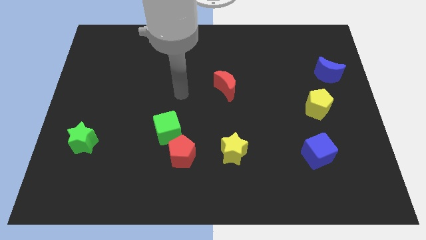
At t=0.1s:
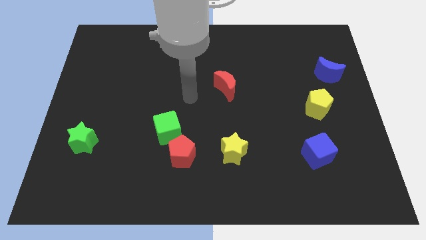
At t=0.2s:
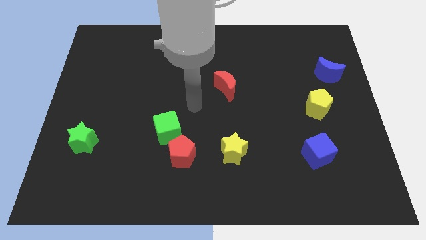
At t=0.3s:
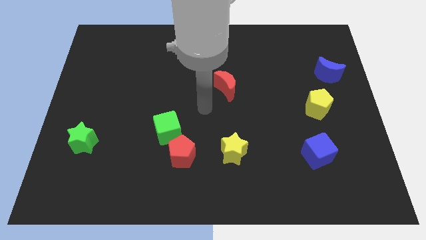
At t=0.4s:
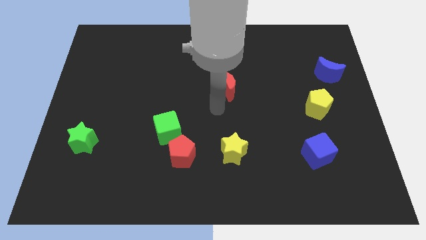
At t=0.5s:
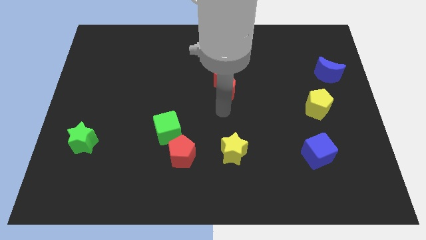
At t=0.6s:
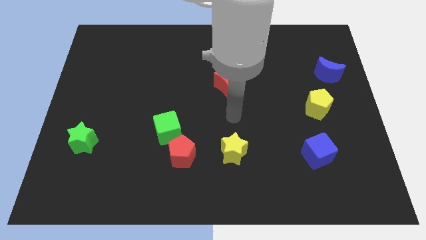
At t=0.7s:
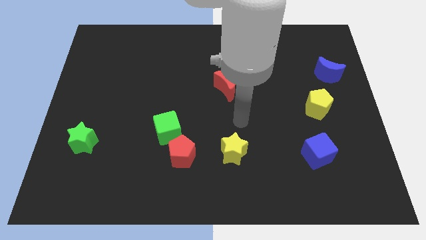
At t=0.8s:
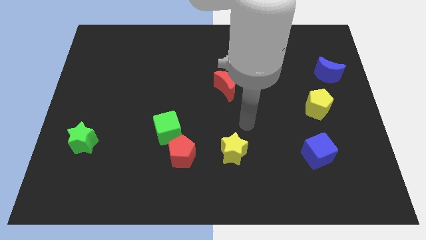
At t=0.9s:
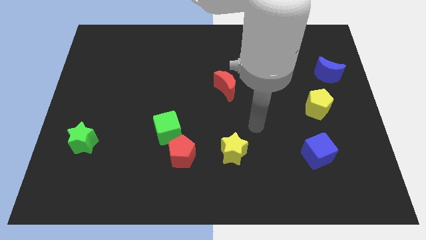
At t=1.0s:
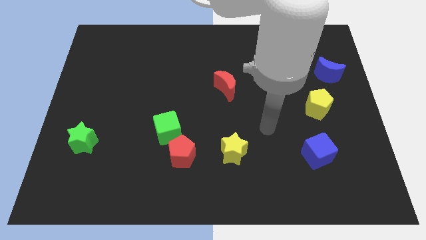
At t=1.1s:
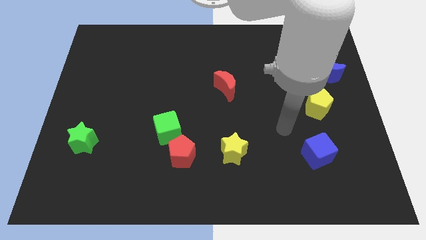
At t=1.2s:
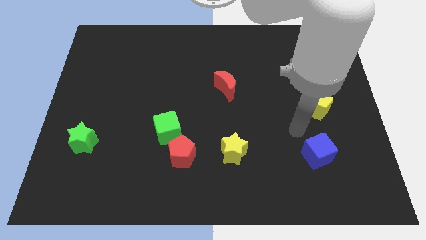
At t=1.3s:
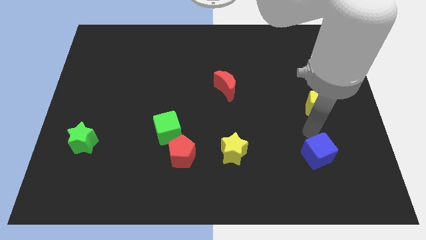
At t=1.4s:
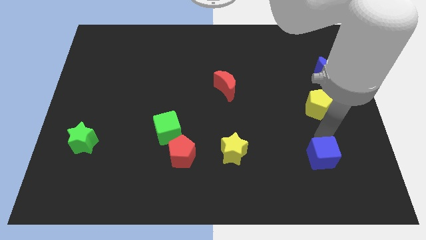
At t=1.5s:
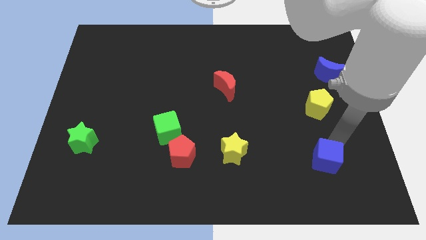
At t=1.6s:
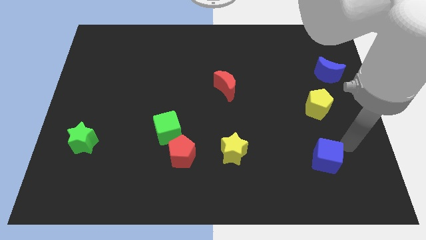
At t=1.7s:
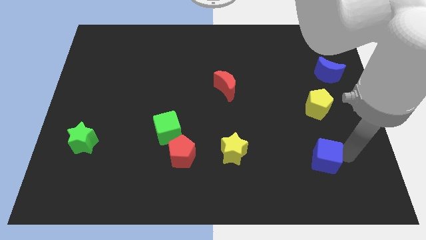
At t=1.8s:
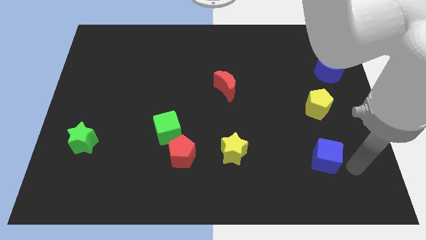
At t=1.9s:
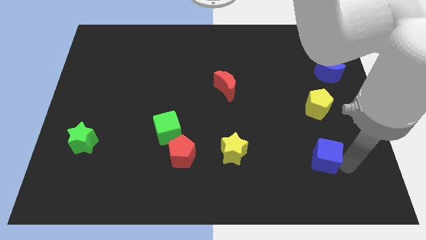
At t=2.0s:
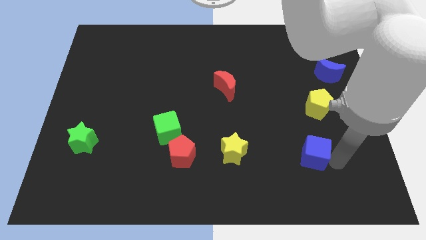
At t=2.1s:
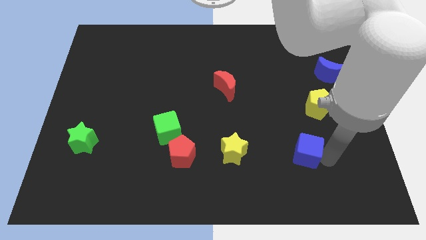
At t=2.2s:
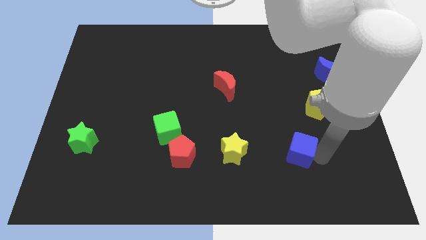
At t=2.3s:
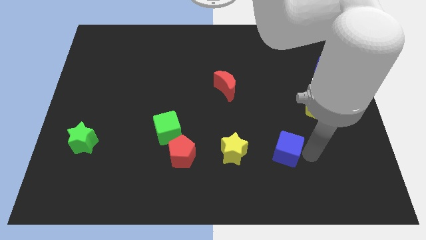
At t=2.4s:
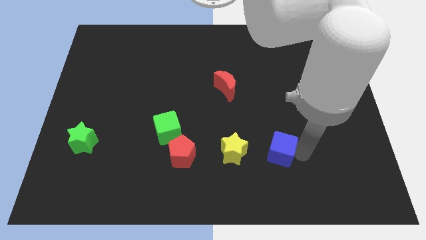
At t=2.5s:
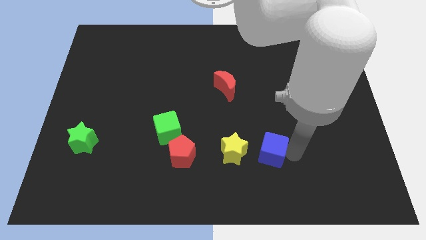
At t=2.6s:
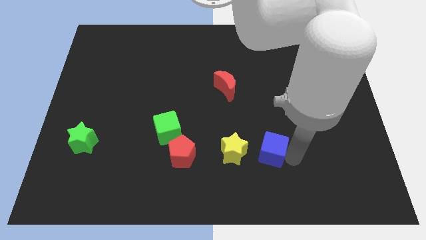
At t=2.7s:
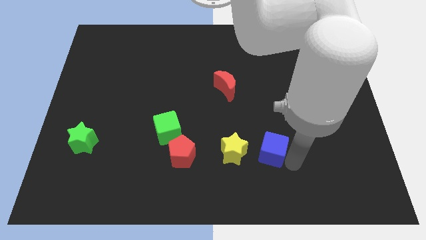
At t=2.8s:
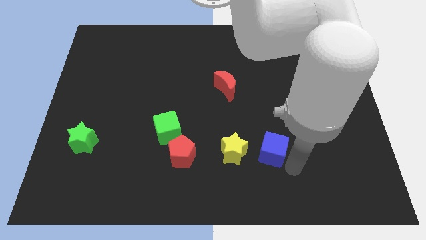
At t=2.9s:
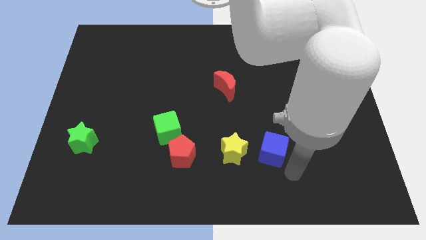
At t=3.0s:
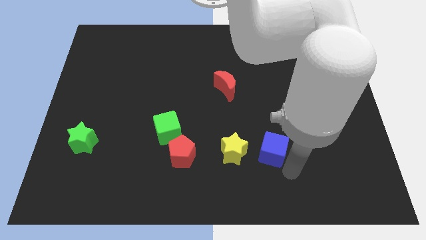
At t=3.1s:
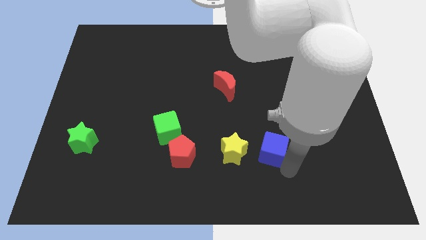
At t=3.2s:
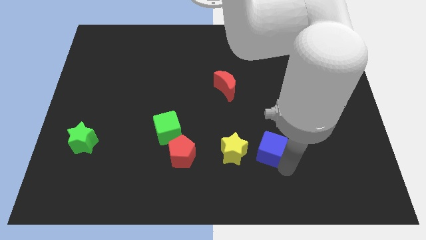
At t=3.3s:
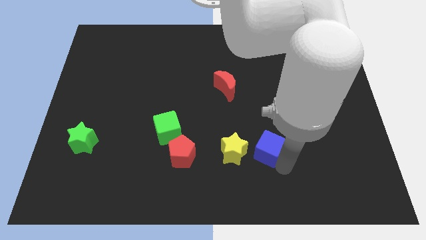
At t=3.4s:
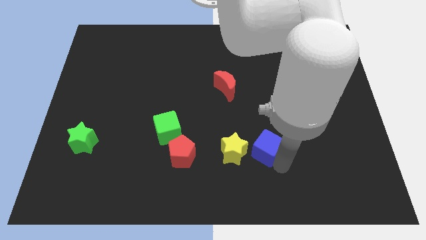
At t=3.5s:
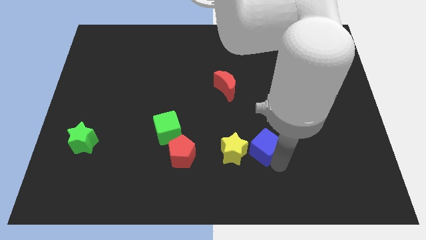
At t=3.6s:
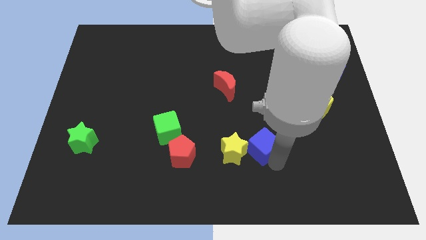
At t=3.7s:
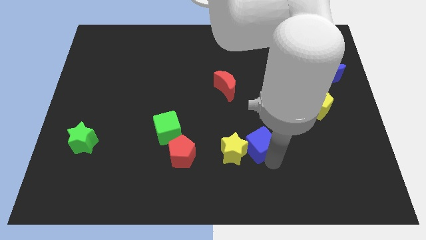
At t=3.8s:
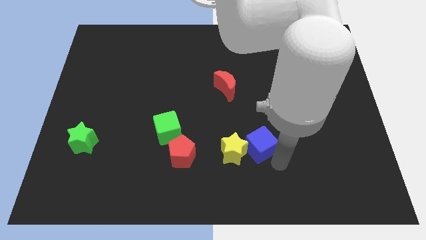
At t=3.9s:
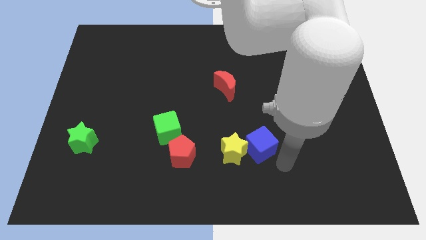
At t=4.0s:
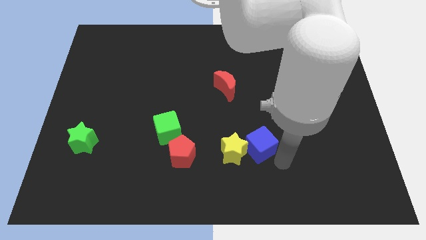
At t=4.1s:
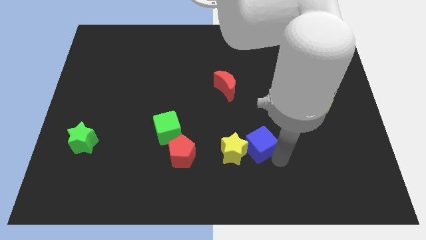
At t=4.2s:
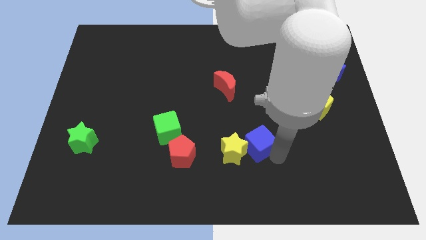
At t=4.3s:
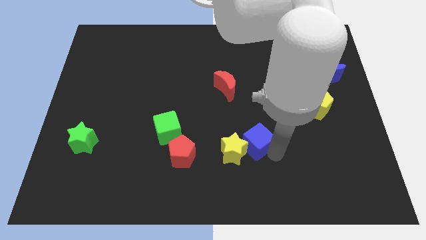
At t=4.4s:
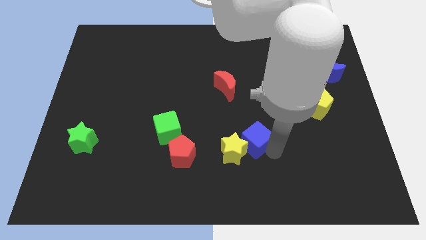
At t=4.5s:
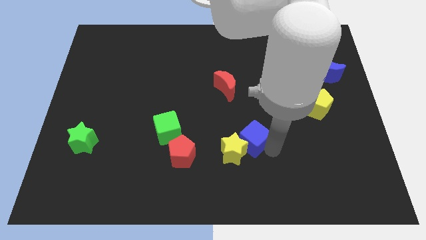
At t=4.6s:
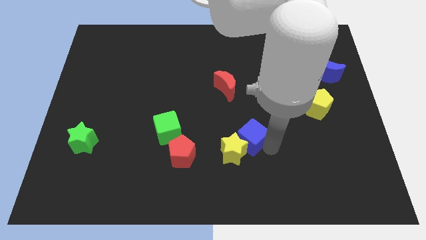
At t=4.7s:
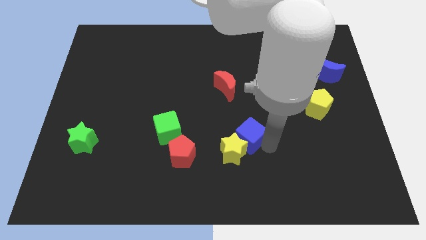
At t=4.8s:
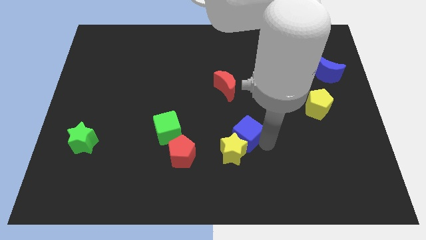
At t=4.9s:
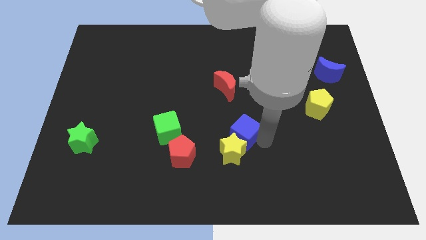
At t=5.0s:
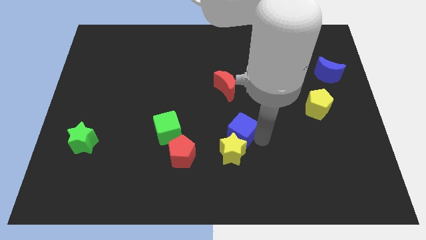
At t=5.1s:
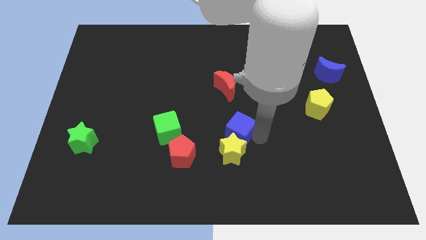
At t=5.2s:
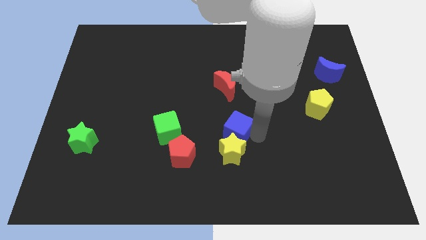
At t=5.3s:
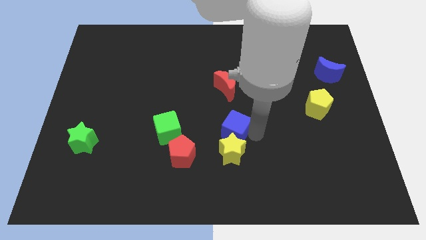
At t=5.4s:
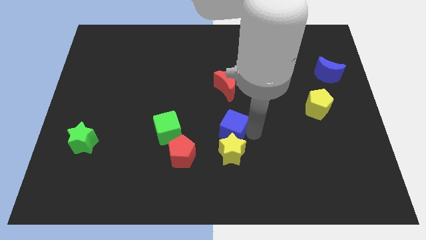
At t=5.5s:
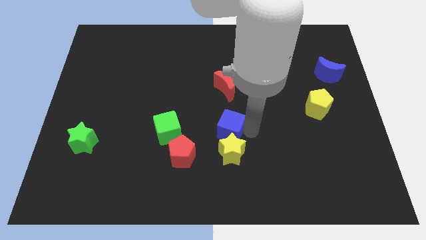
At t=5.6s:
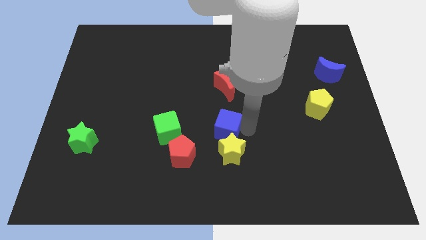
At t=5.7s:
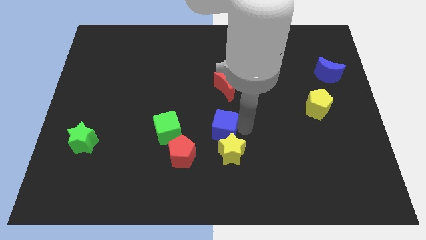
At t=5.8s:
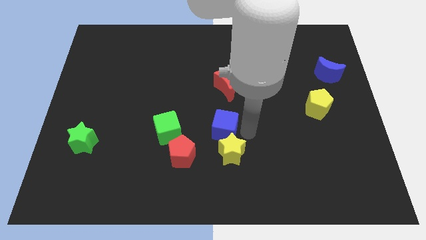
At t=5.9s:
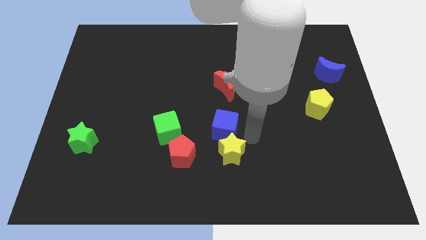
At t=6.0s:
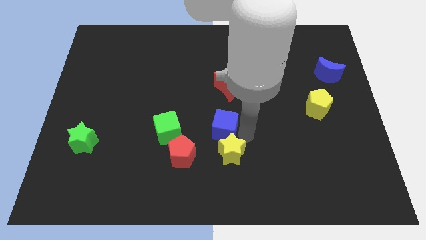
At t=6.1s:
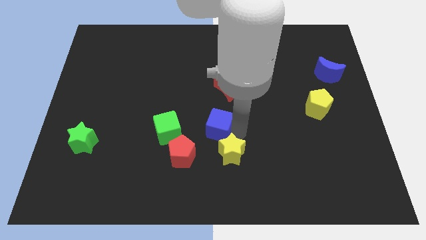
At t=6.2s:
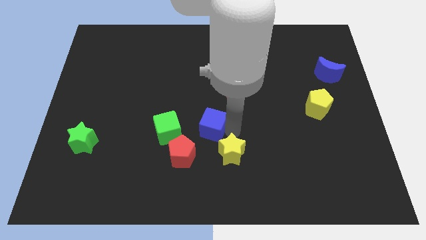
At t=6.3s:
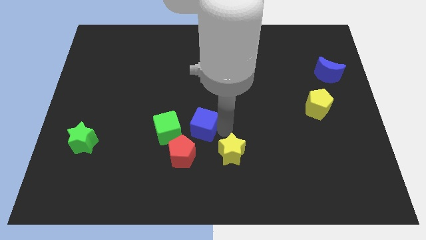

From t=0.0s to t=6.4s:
move the blue cube above the red pentagon

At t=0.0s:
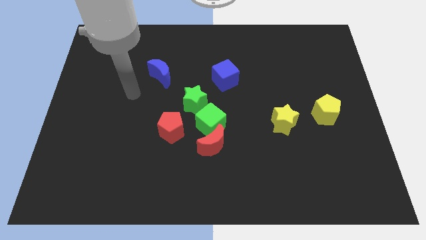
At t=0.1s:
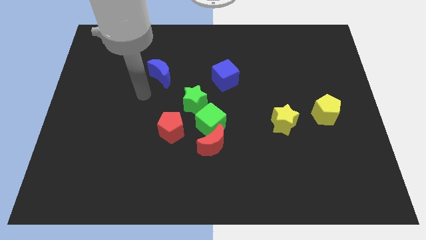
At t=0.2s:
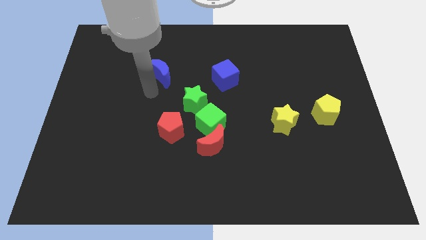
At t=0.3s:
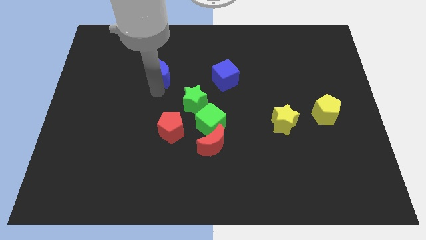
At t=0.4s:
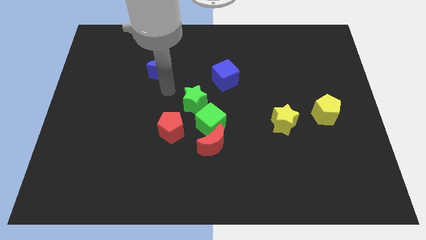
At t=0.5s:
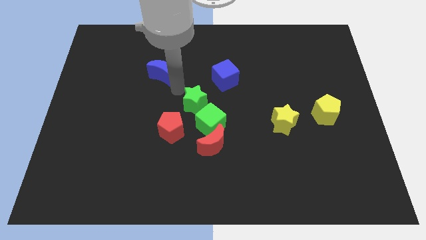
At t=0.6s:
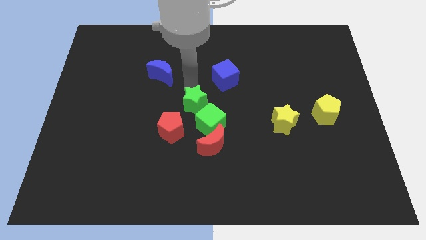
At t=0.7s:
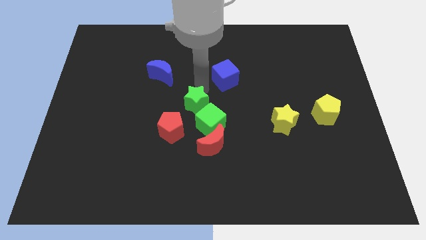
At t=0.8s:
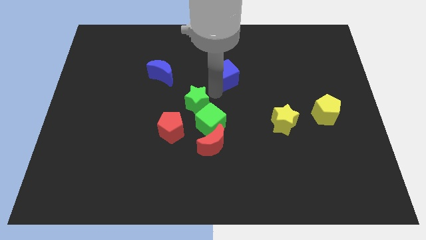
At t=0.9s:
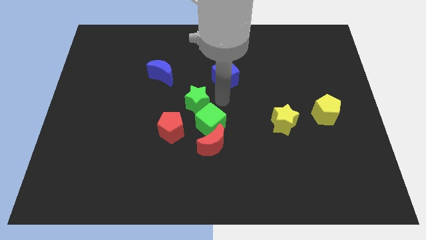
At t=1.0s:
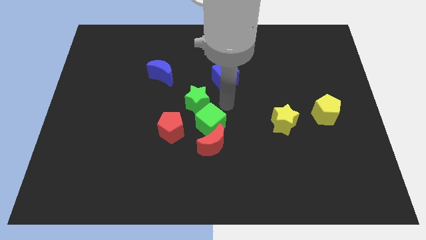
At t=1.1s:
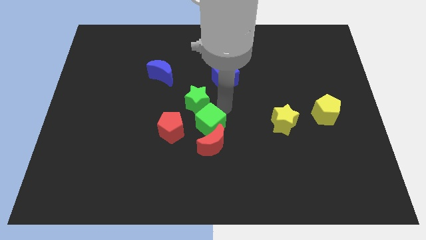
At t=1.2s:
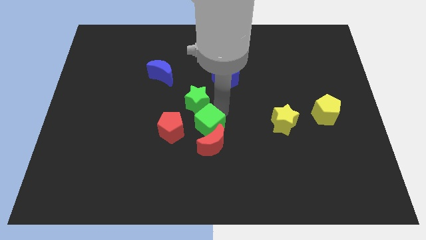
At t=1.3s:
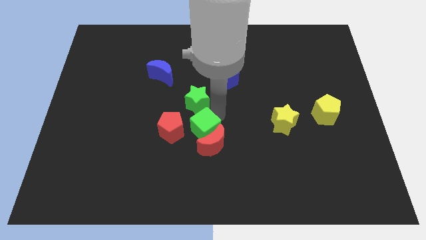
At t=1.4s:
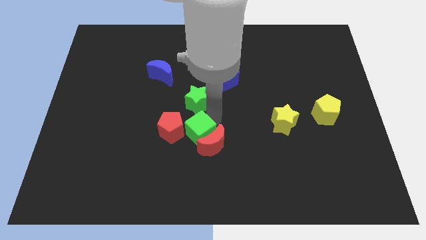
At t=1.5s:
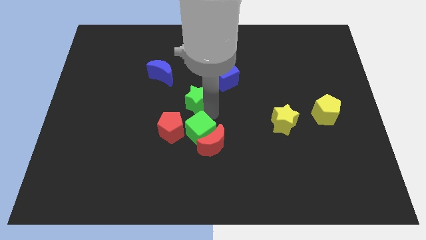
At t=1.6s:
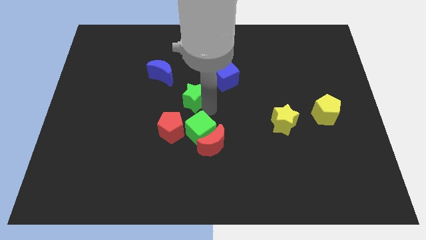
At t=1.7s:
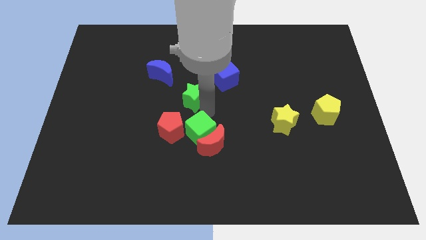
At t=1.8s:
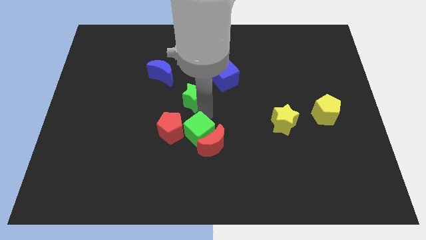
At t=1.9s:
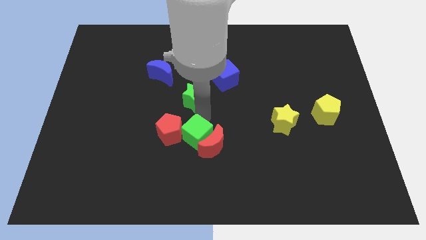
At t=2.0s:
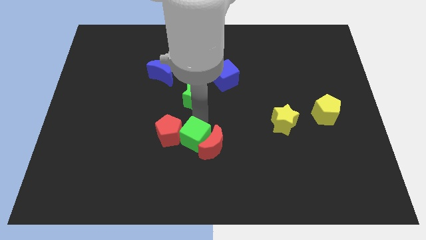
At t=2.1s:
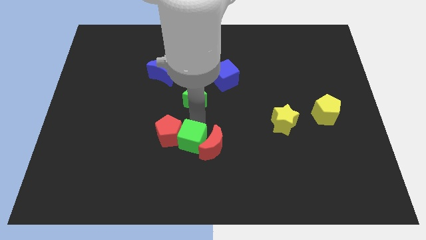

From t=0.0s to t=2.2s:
move the green cube to the bottom left side of the red moon
